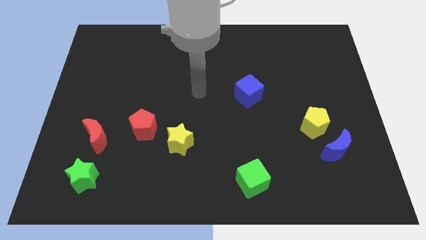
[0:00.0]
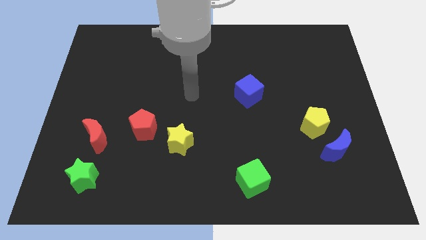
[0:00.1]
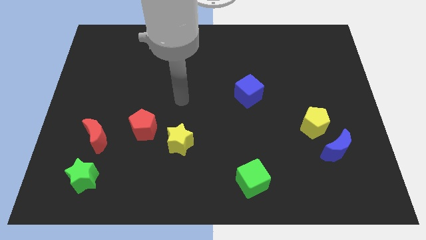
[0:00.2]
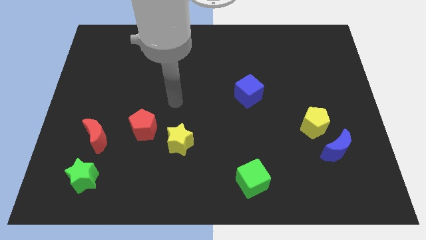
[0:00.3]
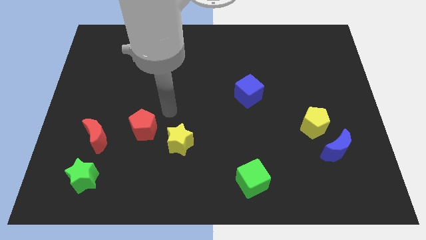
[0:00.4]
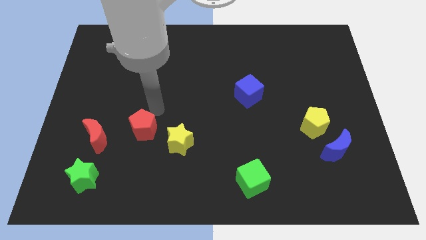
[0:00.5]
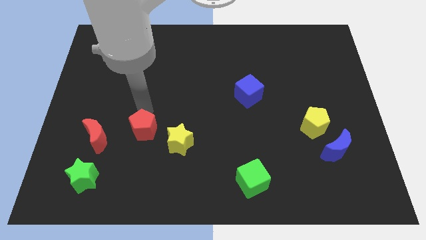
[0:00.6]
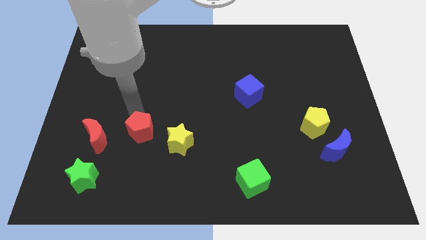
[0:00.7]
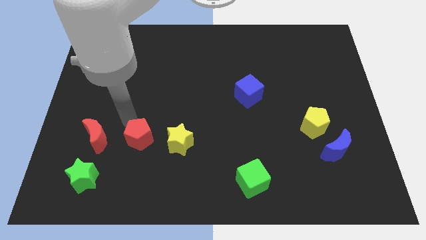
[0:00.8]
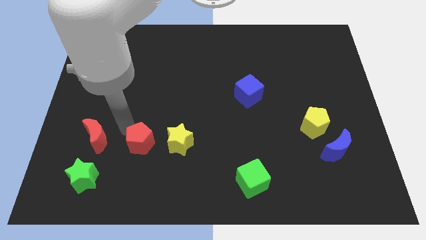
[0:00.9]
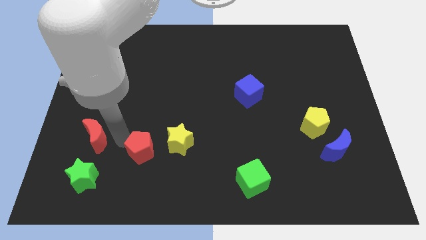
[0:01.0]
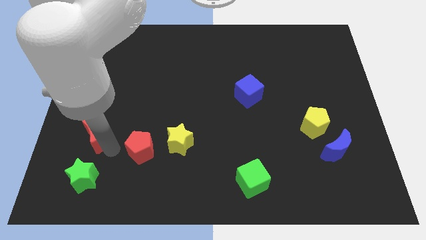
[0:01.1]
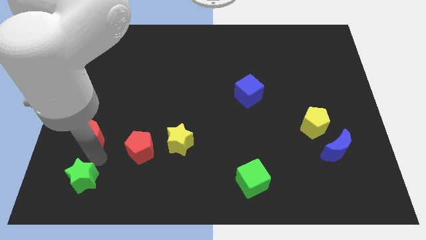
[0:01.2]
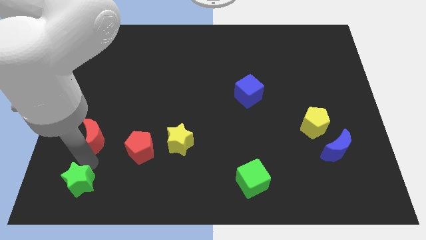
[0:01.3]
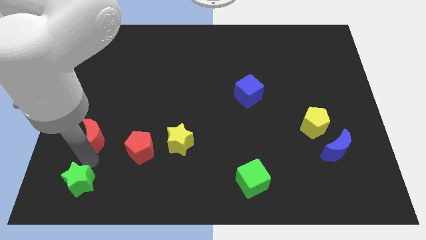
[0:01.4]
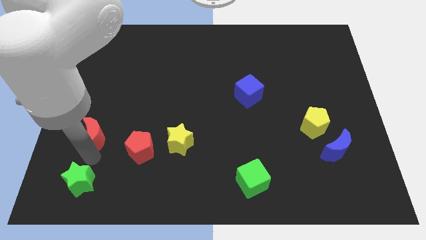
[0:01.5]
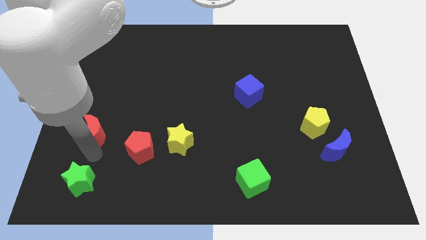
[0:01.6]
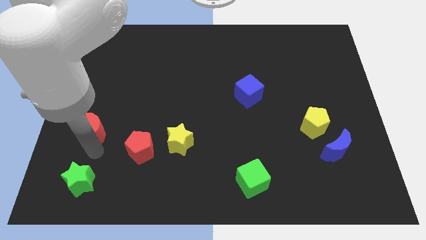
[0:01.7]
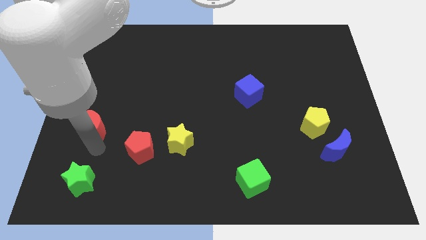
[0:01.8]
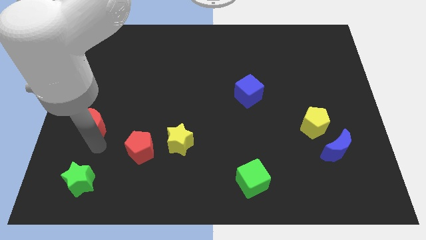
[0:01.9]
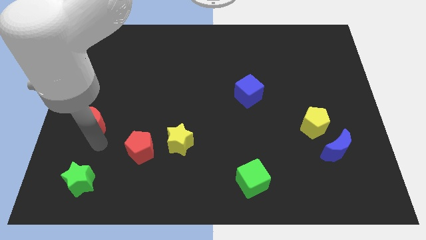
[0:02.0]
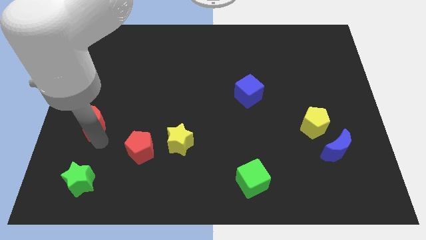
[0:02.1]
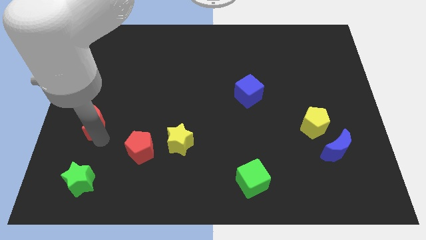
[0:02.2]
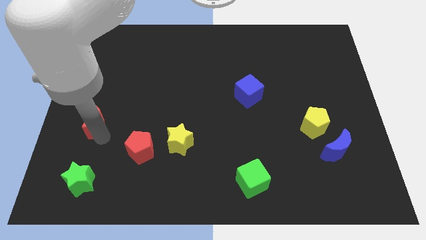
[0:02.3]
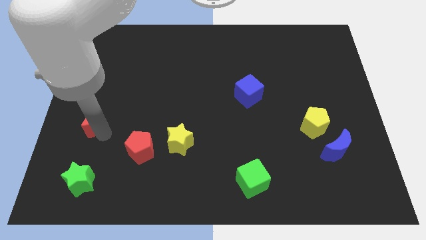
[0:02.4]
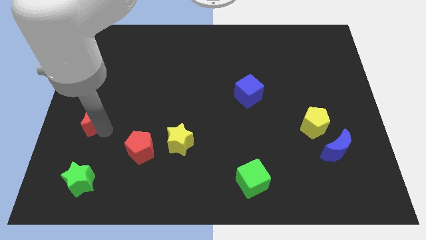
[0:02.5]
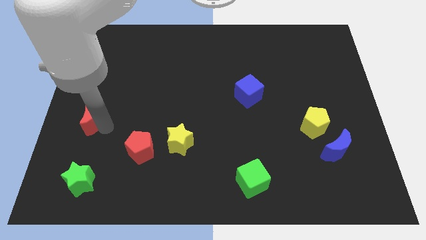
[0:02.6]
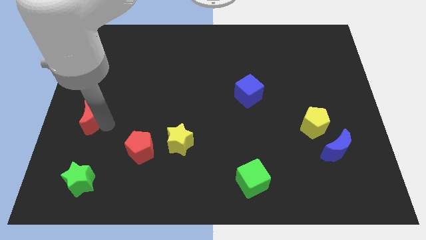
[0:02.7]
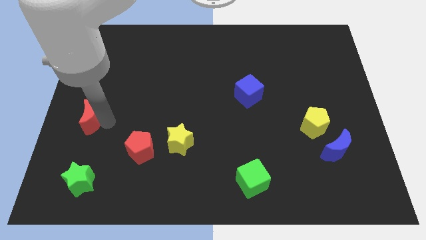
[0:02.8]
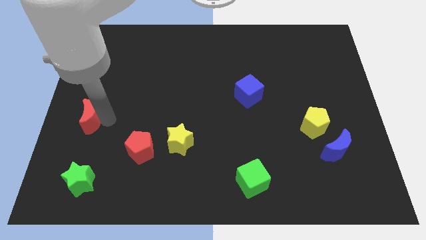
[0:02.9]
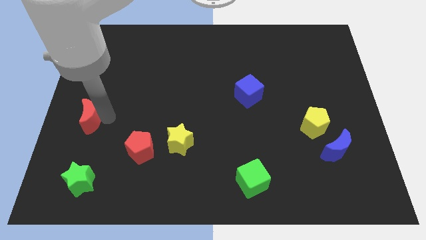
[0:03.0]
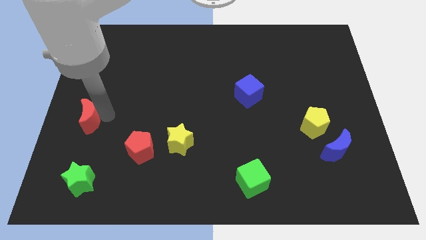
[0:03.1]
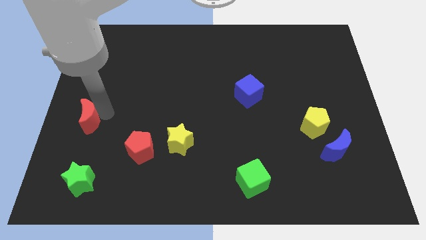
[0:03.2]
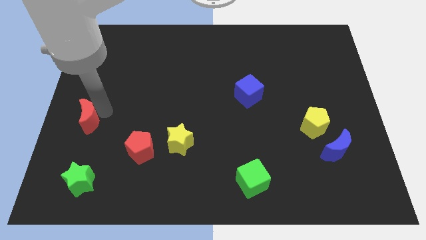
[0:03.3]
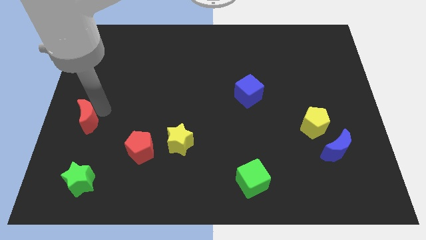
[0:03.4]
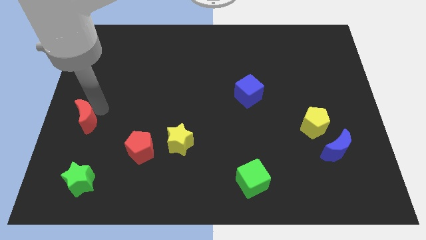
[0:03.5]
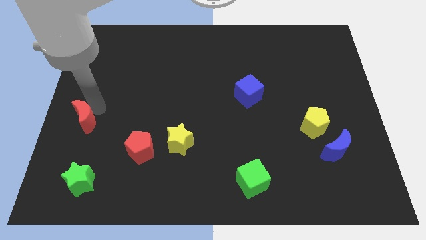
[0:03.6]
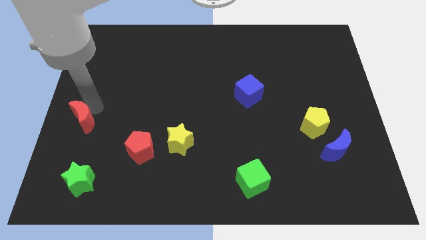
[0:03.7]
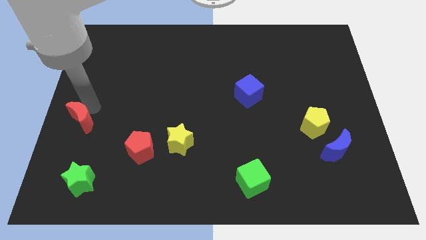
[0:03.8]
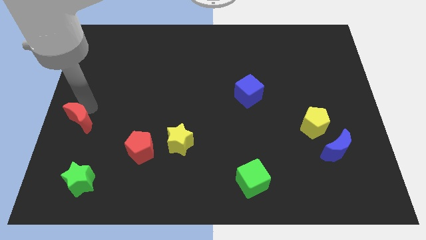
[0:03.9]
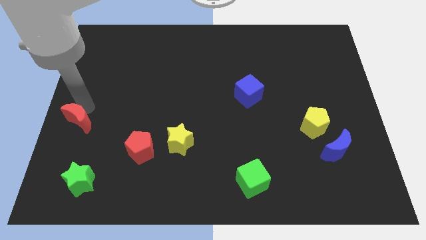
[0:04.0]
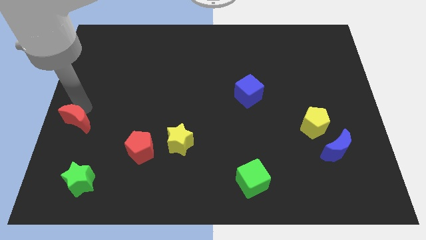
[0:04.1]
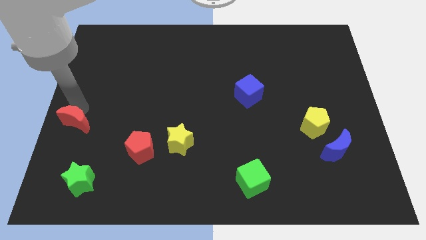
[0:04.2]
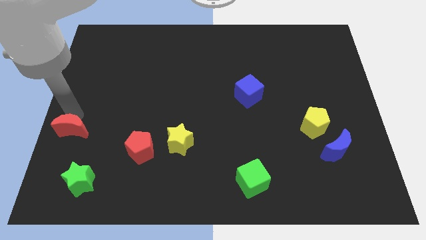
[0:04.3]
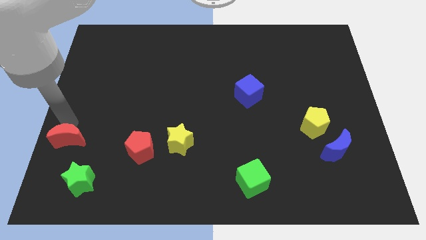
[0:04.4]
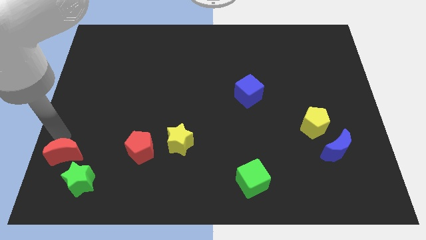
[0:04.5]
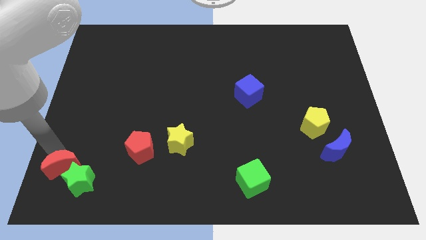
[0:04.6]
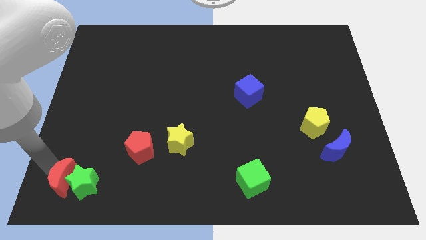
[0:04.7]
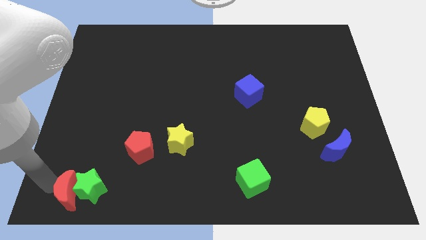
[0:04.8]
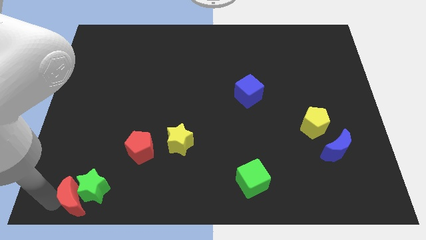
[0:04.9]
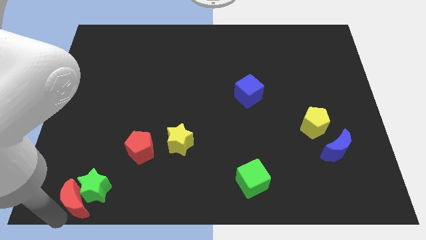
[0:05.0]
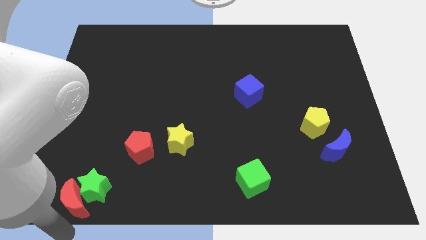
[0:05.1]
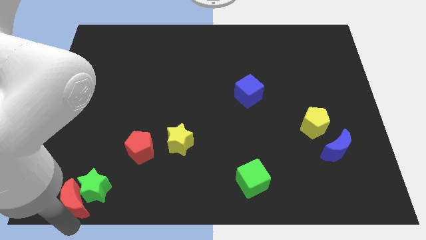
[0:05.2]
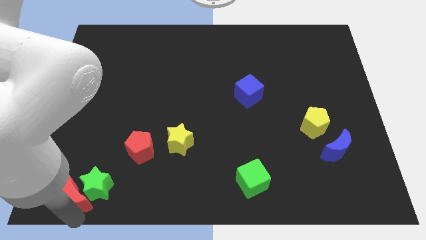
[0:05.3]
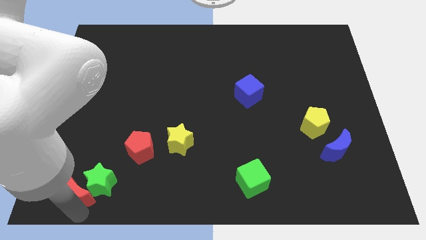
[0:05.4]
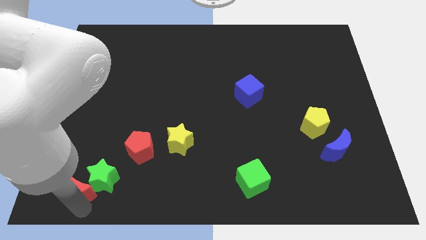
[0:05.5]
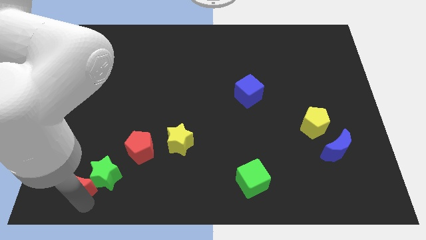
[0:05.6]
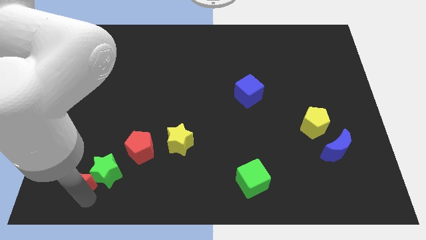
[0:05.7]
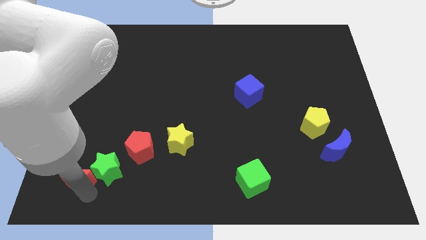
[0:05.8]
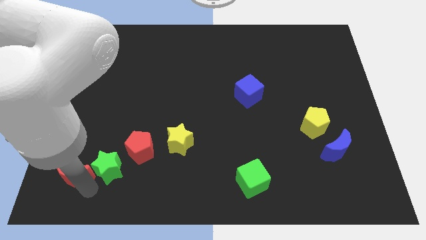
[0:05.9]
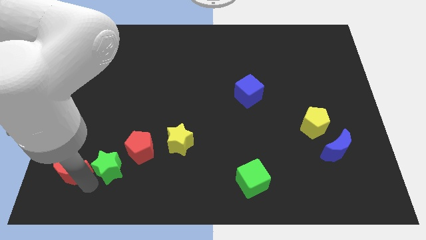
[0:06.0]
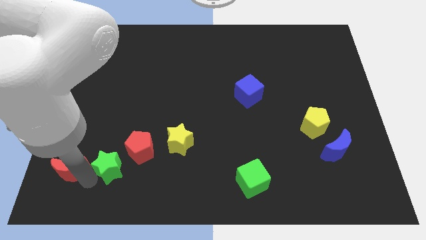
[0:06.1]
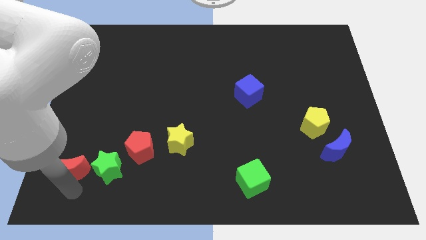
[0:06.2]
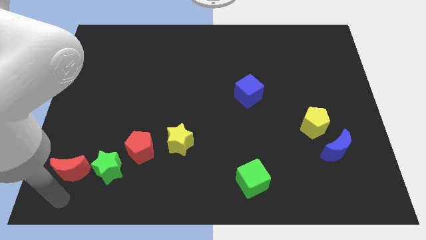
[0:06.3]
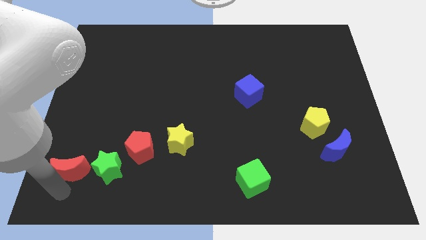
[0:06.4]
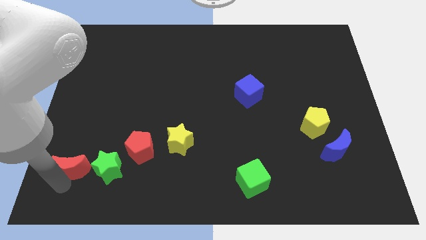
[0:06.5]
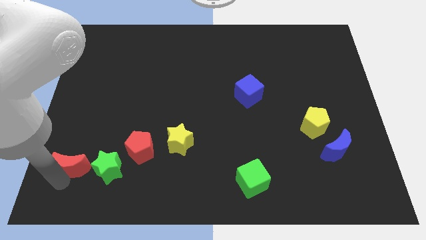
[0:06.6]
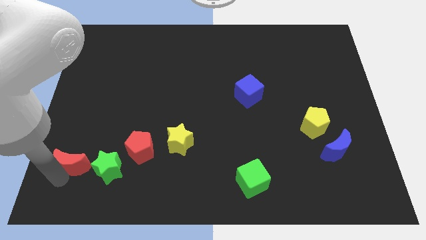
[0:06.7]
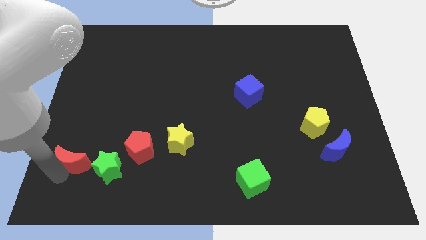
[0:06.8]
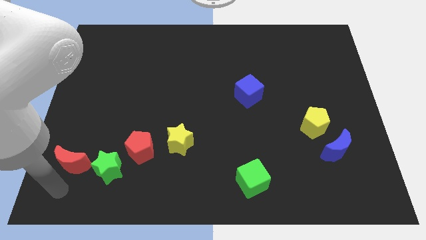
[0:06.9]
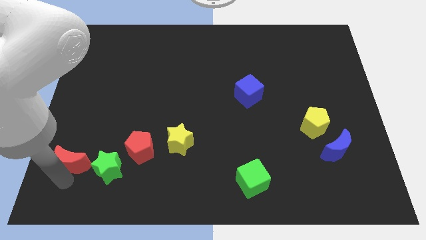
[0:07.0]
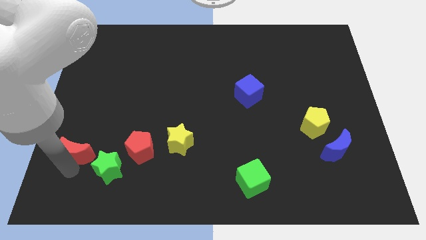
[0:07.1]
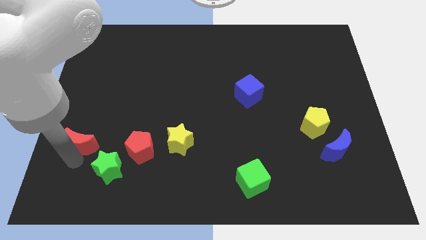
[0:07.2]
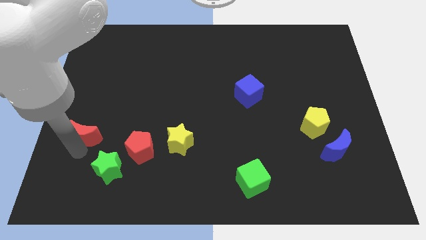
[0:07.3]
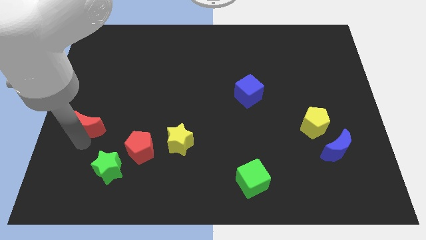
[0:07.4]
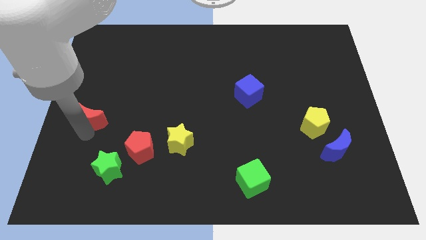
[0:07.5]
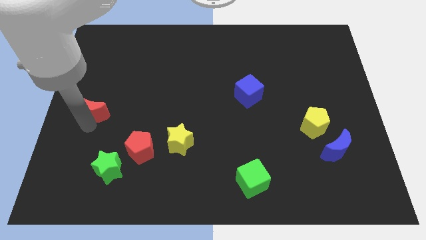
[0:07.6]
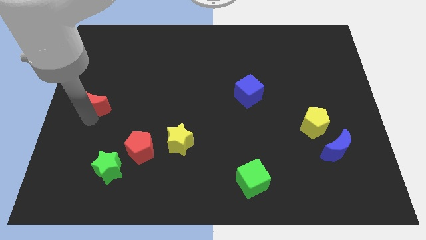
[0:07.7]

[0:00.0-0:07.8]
slide the red moon slightly up

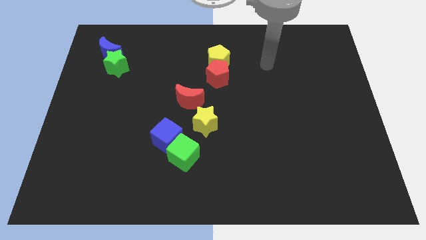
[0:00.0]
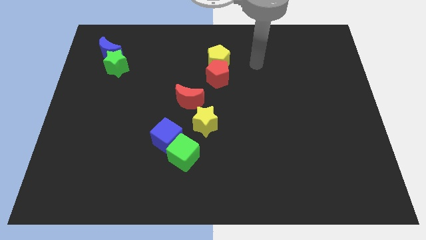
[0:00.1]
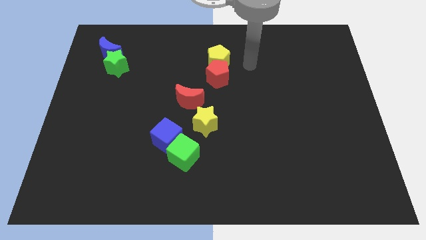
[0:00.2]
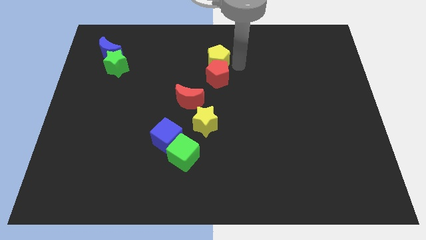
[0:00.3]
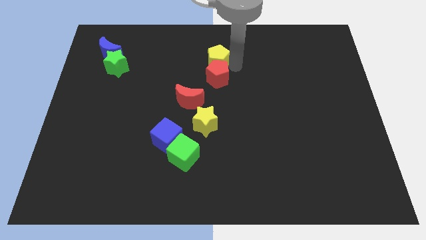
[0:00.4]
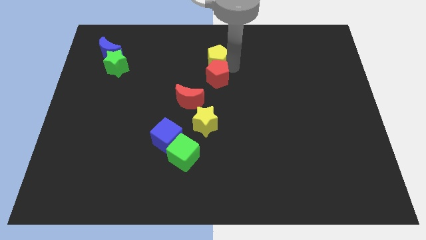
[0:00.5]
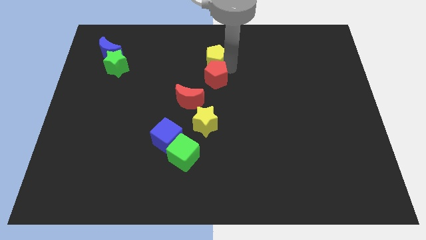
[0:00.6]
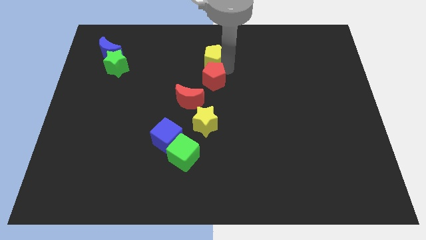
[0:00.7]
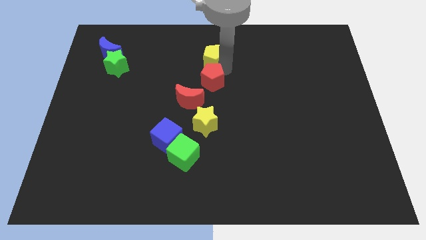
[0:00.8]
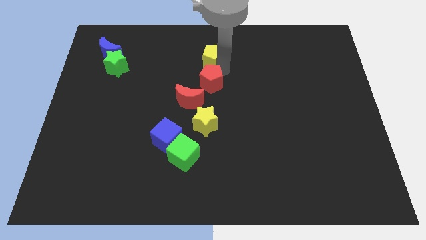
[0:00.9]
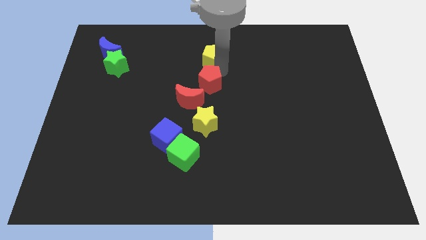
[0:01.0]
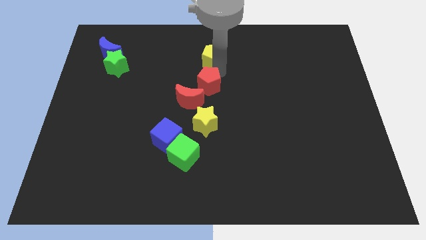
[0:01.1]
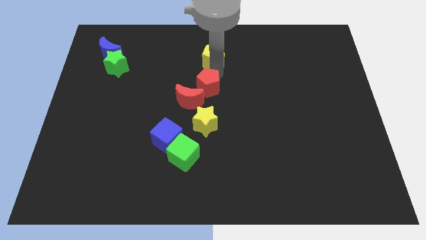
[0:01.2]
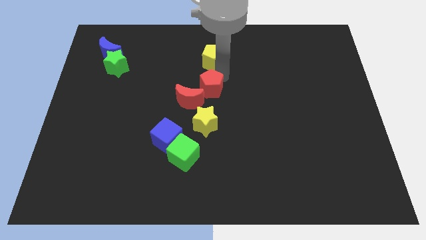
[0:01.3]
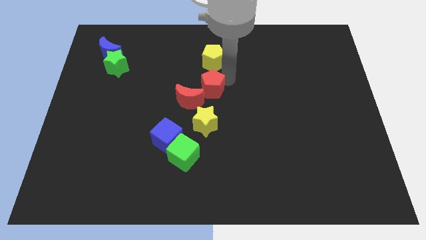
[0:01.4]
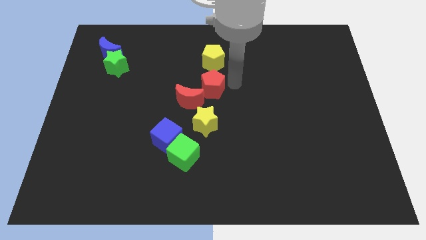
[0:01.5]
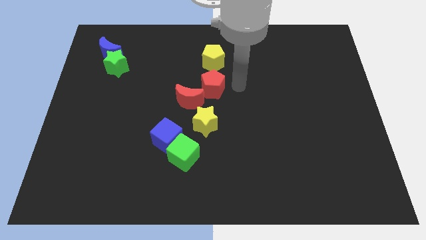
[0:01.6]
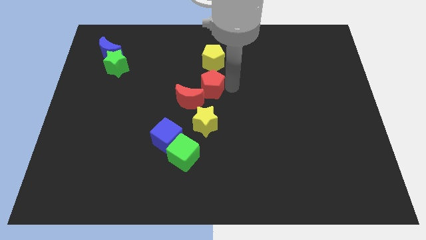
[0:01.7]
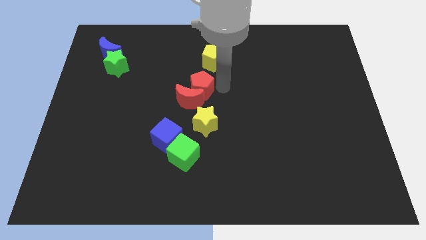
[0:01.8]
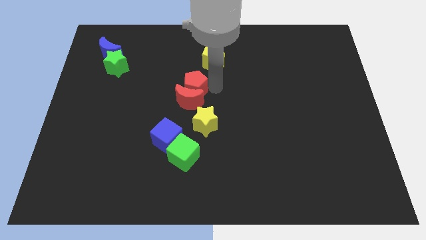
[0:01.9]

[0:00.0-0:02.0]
push the red pentagon diagonally down and left a bit
